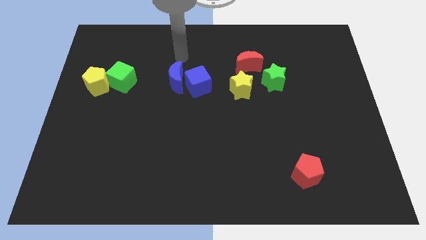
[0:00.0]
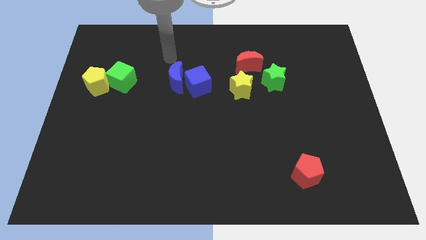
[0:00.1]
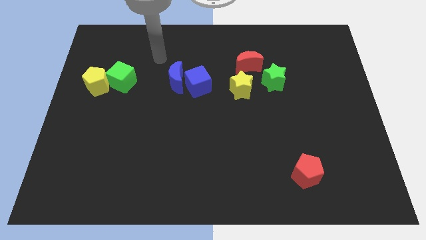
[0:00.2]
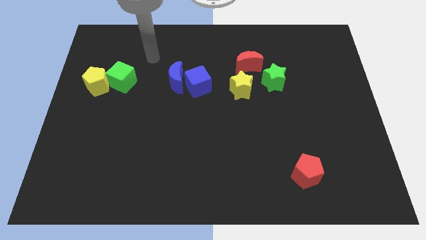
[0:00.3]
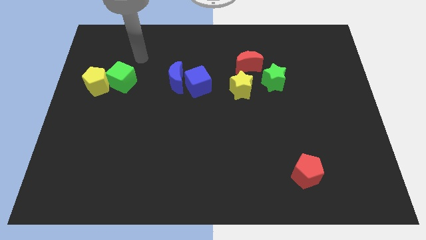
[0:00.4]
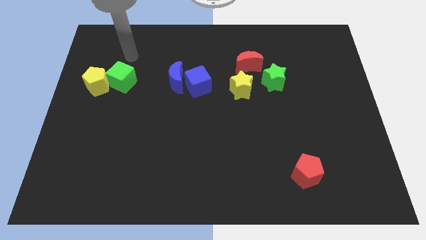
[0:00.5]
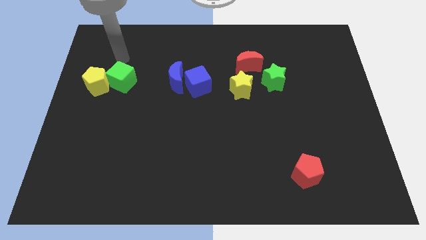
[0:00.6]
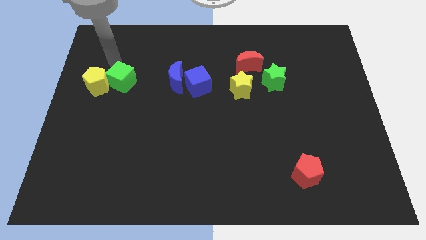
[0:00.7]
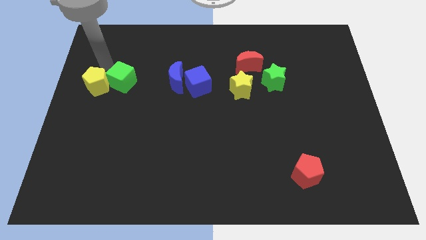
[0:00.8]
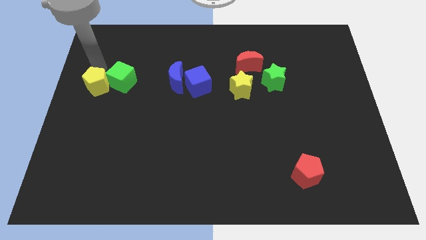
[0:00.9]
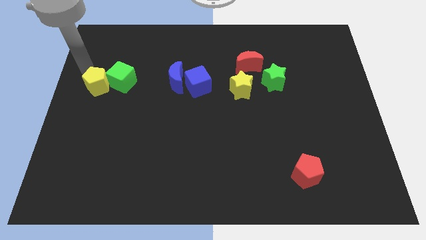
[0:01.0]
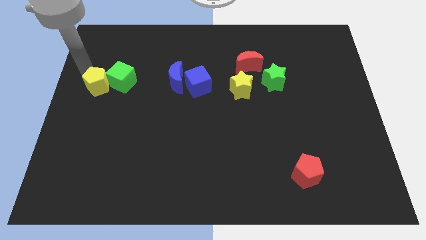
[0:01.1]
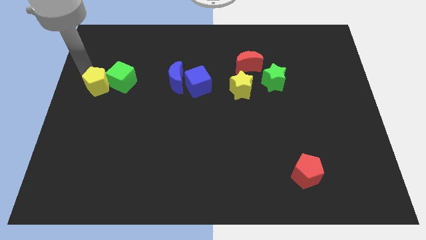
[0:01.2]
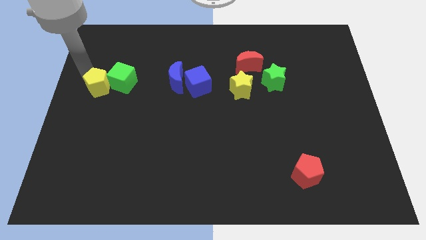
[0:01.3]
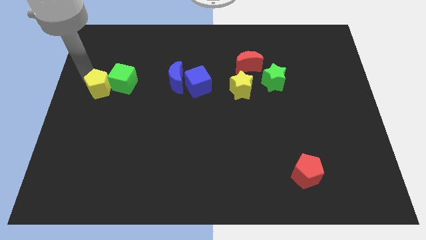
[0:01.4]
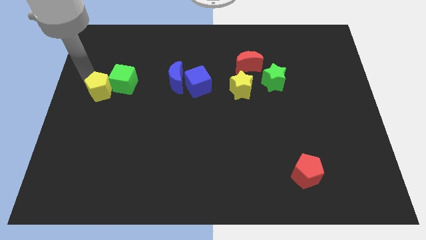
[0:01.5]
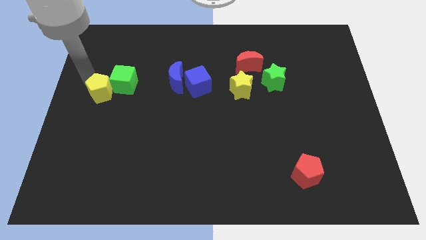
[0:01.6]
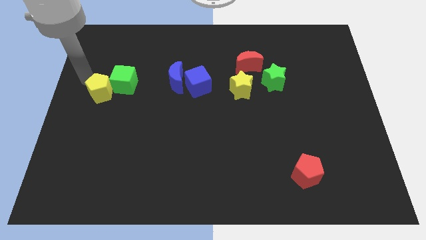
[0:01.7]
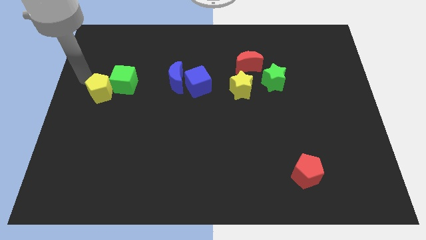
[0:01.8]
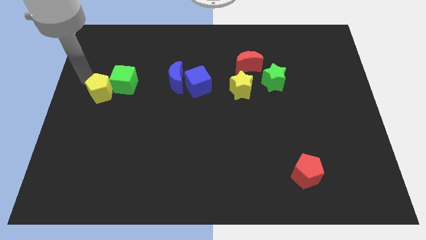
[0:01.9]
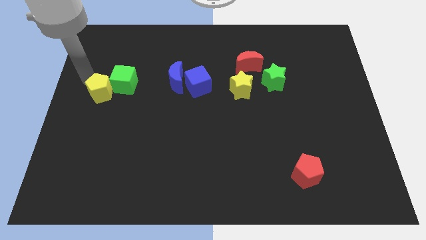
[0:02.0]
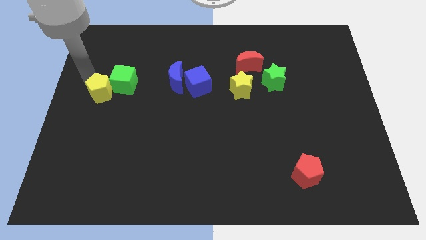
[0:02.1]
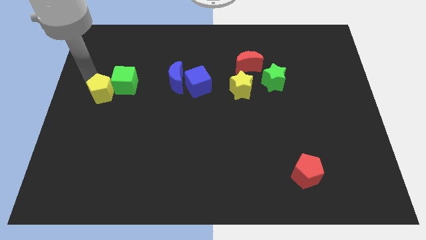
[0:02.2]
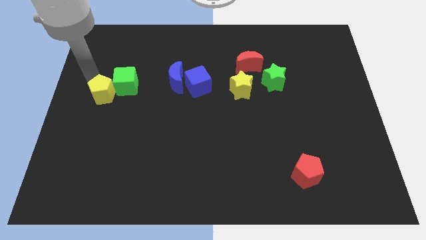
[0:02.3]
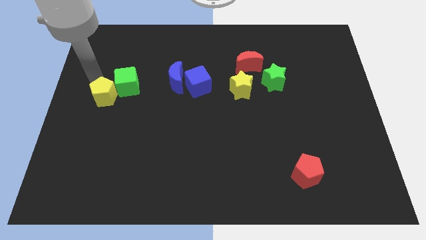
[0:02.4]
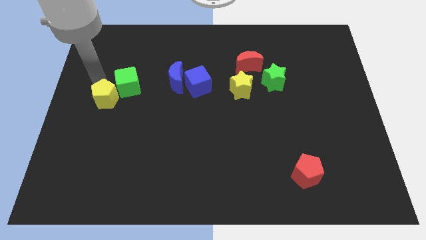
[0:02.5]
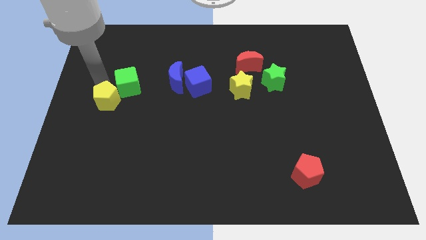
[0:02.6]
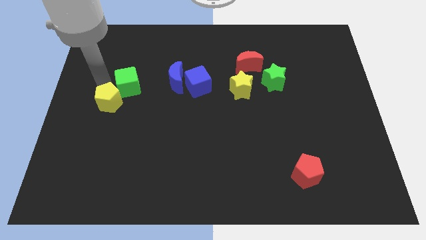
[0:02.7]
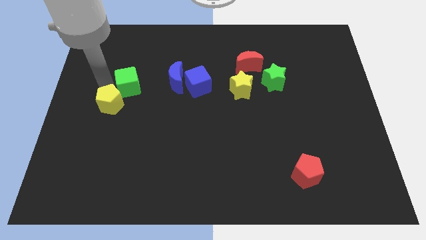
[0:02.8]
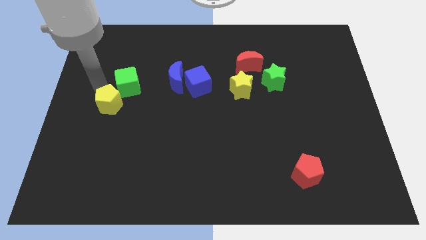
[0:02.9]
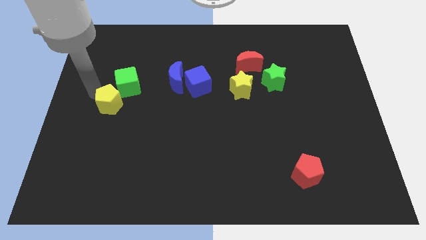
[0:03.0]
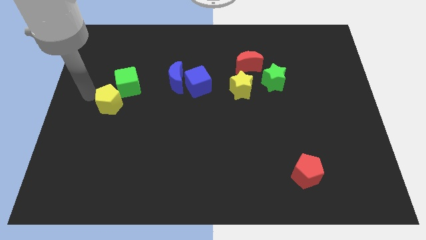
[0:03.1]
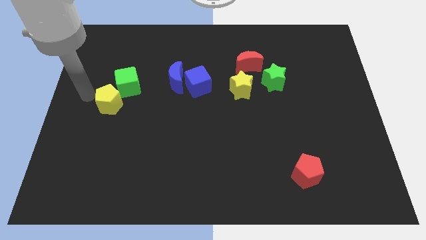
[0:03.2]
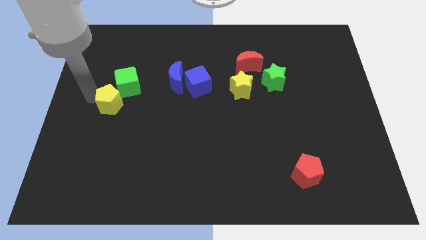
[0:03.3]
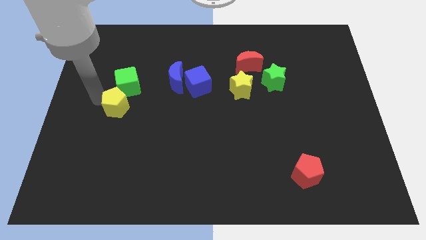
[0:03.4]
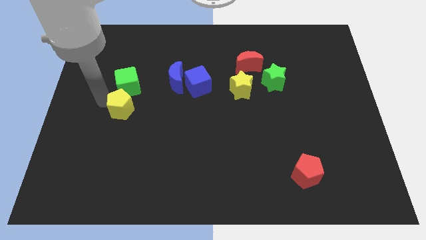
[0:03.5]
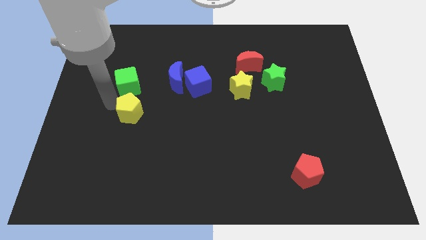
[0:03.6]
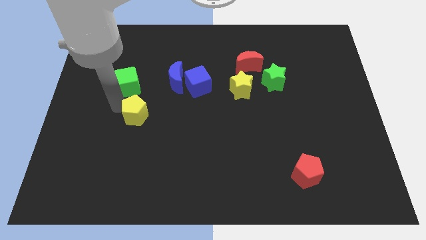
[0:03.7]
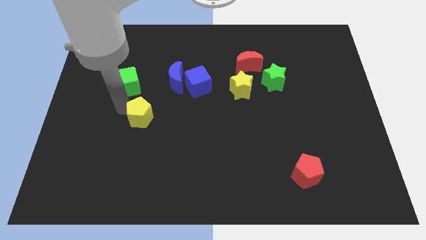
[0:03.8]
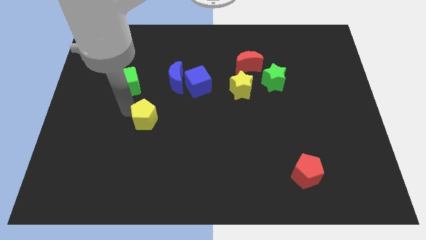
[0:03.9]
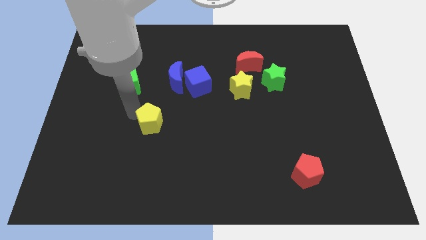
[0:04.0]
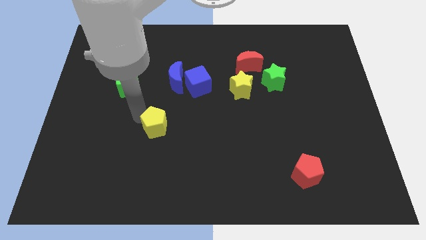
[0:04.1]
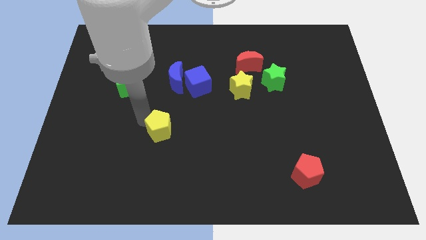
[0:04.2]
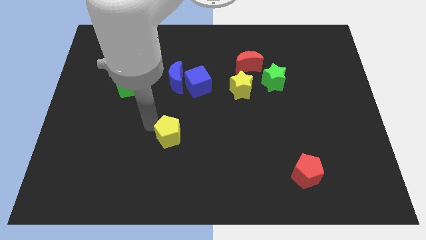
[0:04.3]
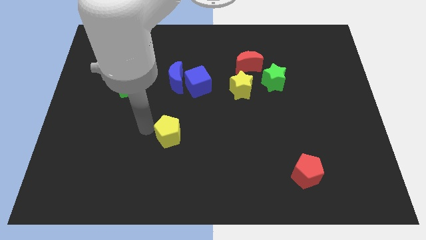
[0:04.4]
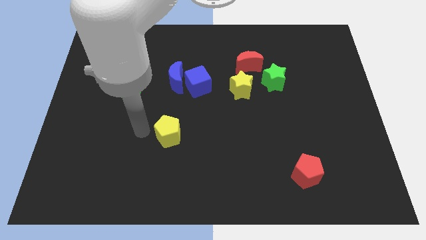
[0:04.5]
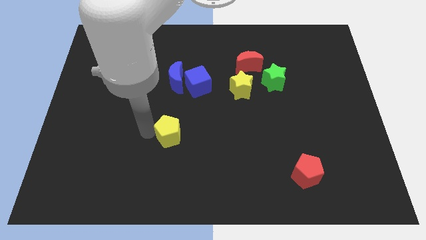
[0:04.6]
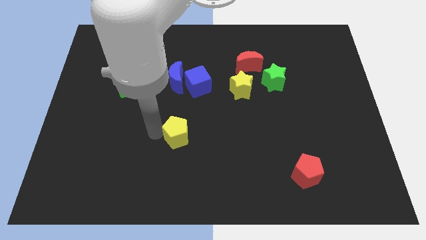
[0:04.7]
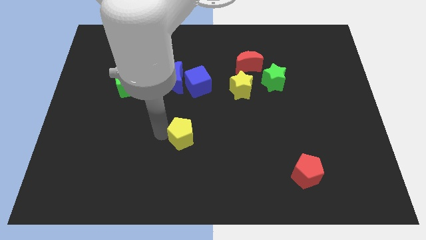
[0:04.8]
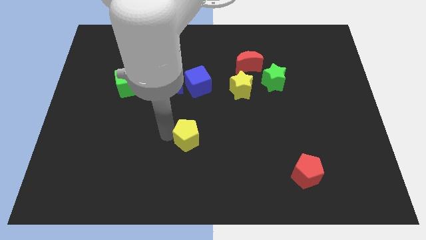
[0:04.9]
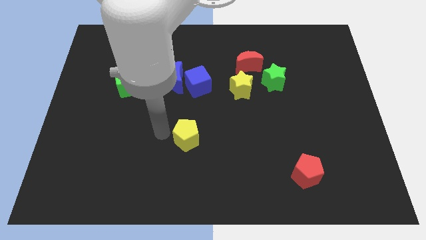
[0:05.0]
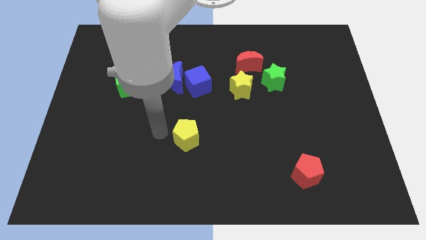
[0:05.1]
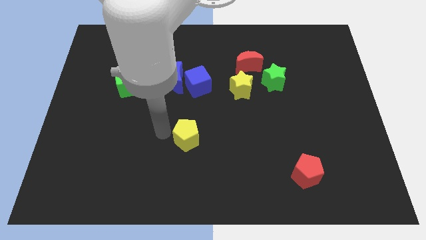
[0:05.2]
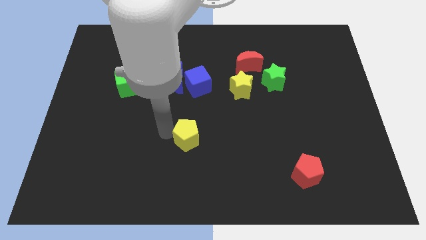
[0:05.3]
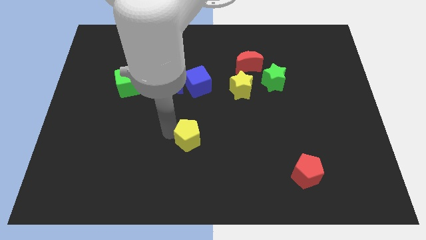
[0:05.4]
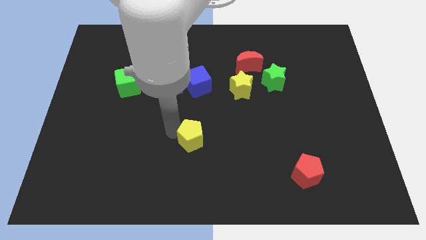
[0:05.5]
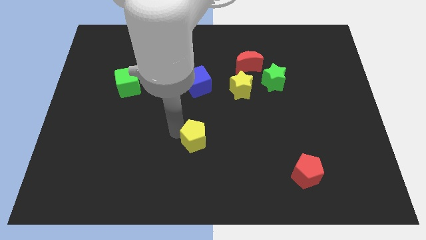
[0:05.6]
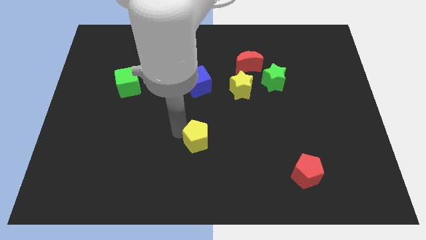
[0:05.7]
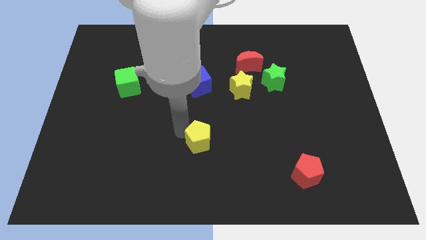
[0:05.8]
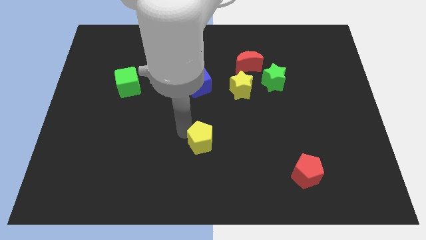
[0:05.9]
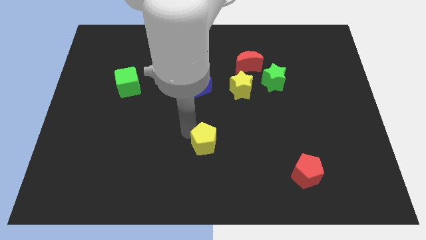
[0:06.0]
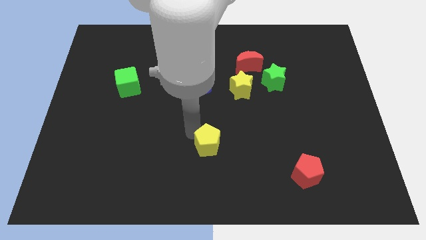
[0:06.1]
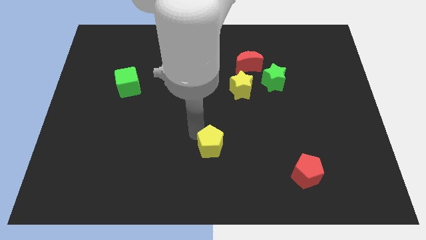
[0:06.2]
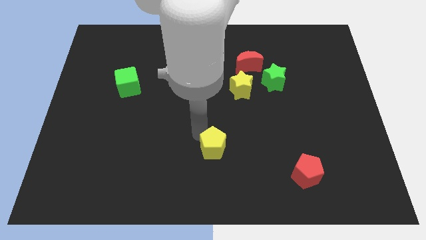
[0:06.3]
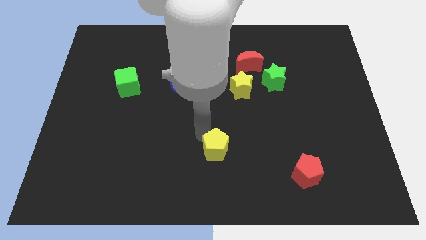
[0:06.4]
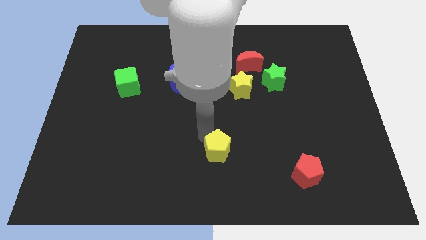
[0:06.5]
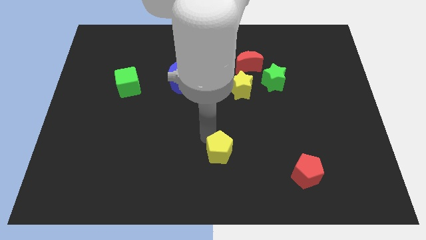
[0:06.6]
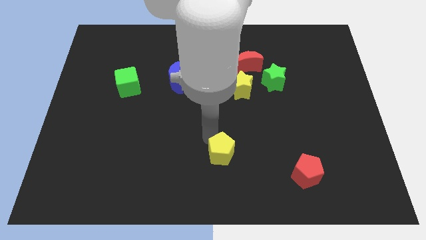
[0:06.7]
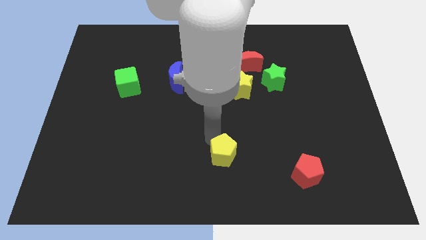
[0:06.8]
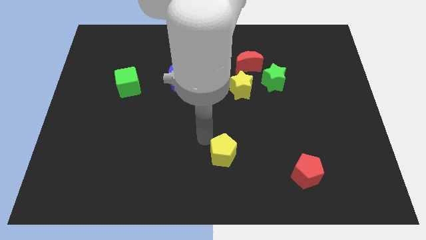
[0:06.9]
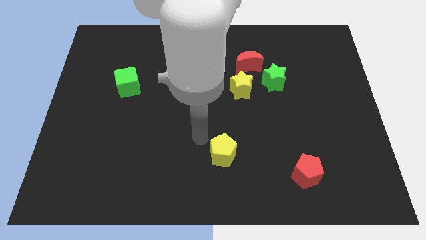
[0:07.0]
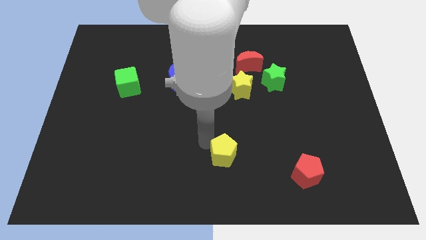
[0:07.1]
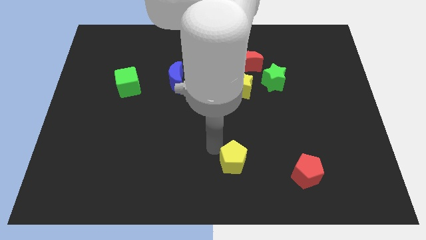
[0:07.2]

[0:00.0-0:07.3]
put the yellow pentagon left of the red pentagon

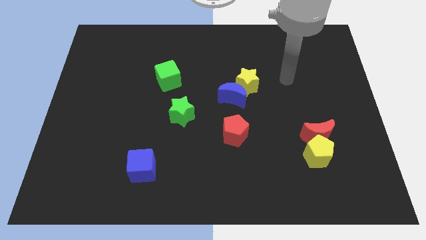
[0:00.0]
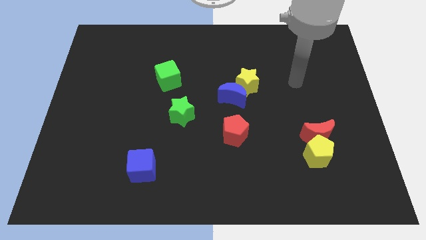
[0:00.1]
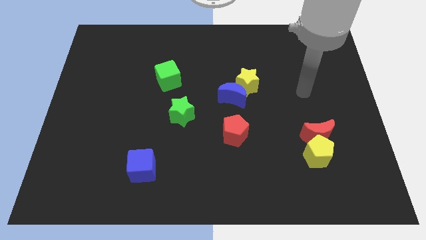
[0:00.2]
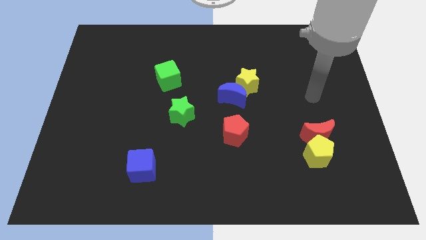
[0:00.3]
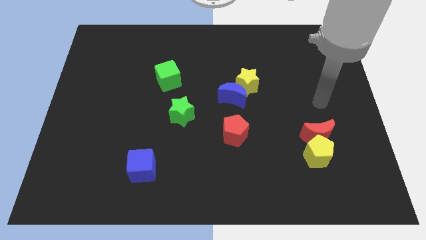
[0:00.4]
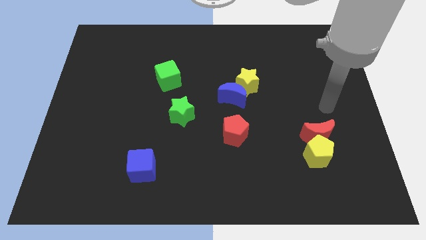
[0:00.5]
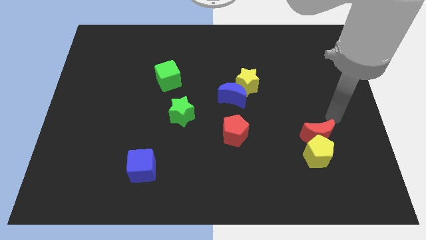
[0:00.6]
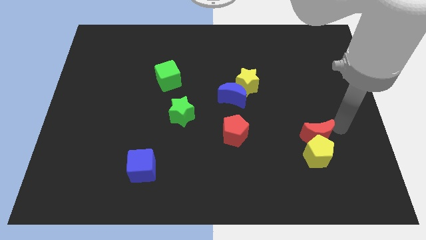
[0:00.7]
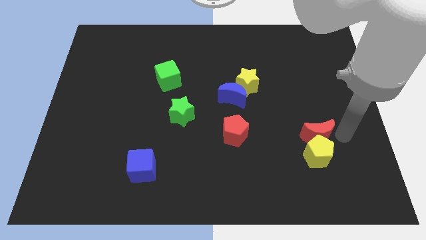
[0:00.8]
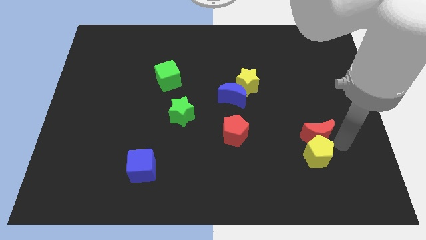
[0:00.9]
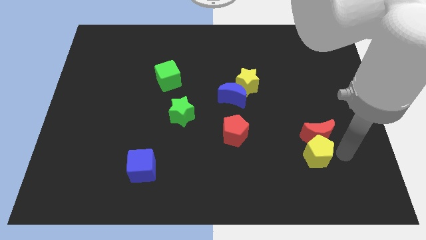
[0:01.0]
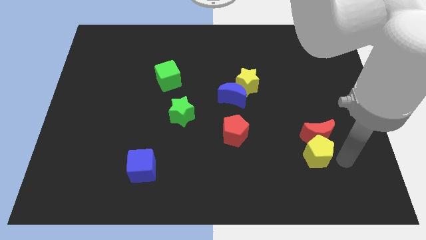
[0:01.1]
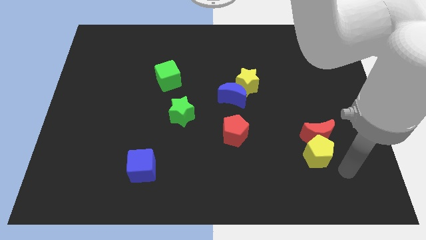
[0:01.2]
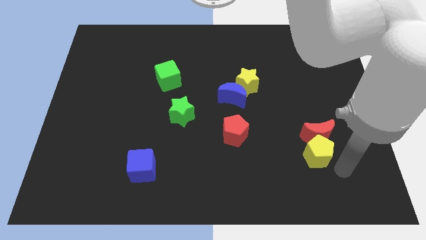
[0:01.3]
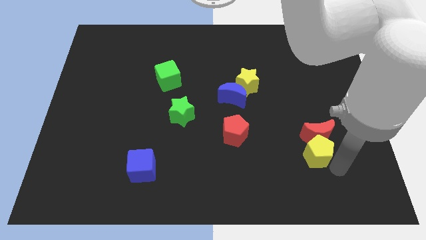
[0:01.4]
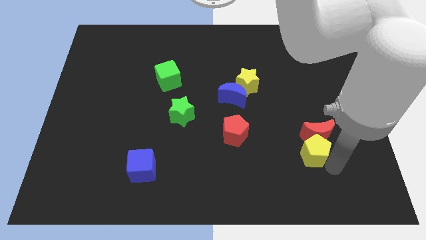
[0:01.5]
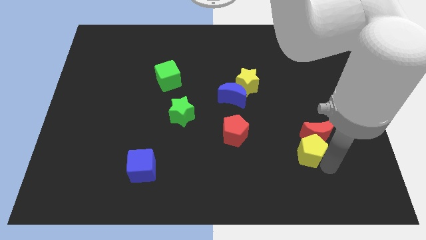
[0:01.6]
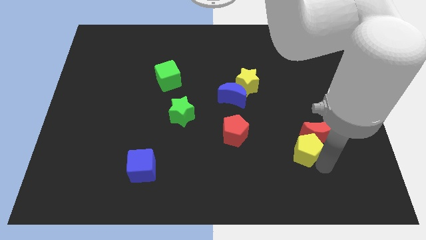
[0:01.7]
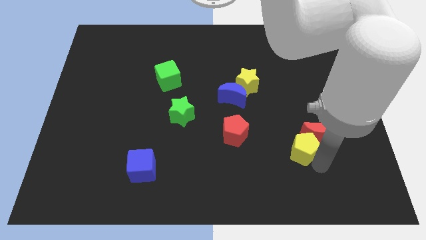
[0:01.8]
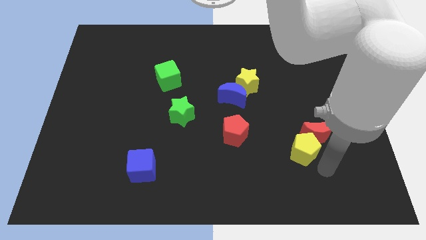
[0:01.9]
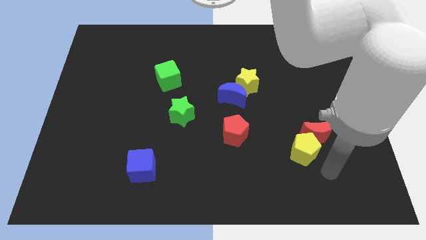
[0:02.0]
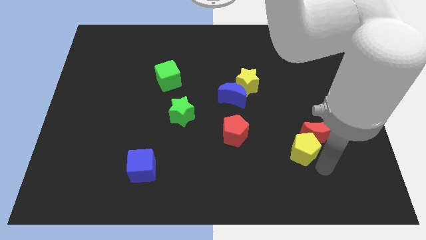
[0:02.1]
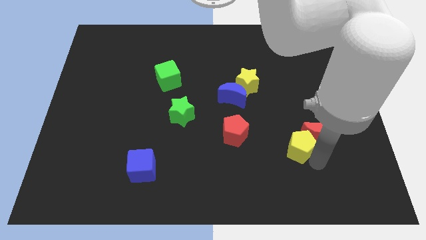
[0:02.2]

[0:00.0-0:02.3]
move the yellow pentagon just right of the red pentagon
